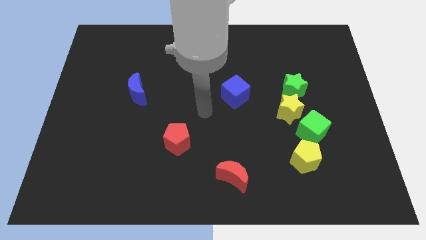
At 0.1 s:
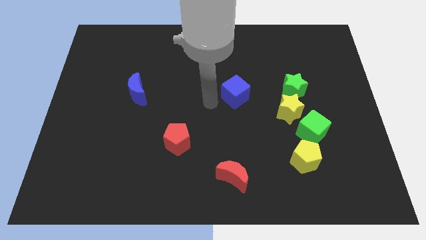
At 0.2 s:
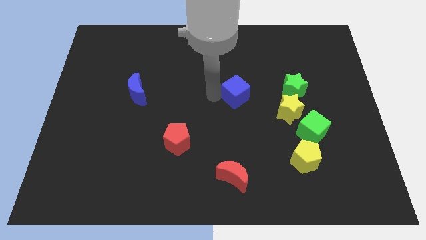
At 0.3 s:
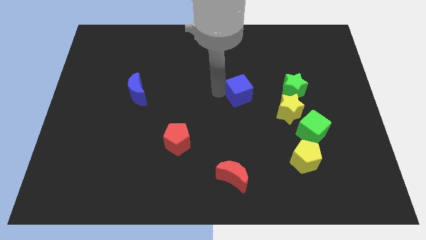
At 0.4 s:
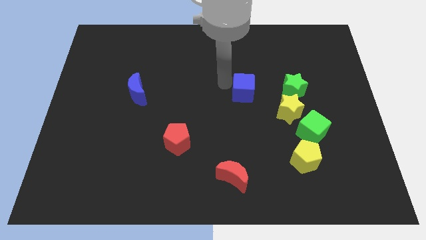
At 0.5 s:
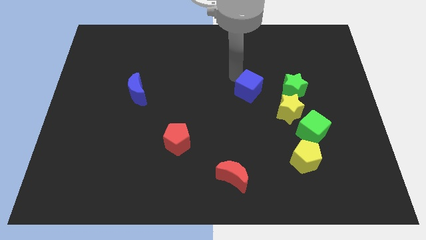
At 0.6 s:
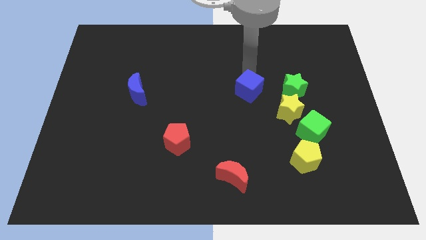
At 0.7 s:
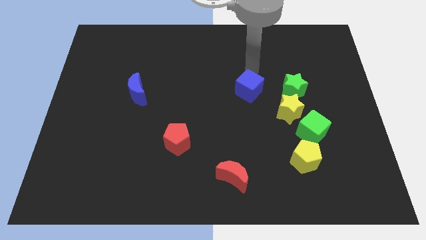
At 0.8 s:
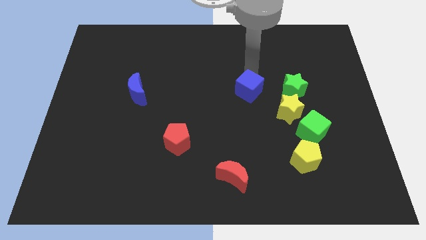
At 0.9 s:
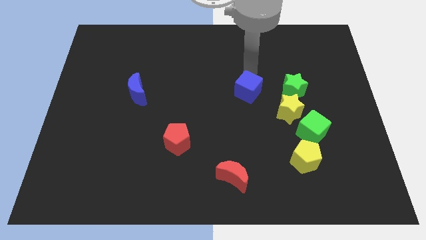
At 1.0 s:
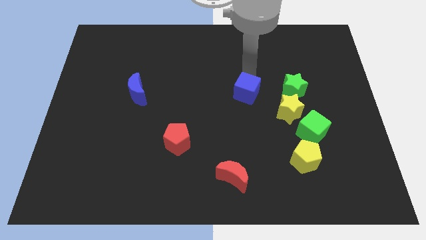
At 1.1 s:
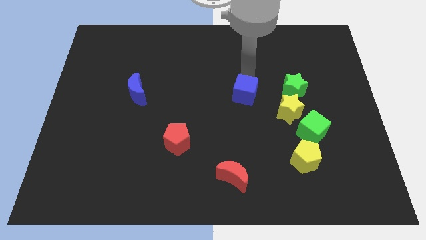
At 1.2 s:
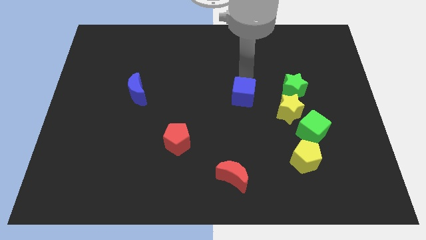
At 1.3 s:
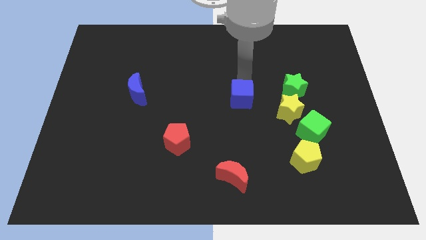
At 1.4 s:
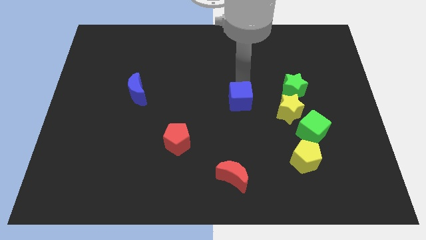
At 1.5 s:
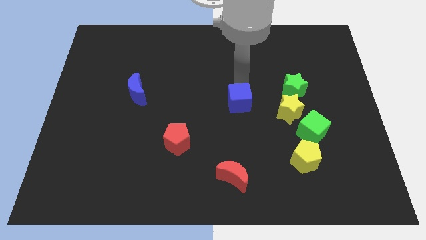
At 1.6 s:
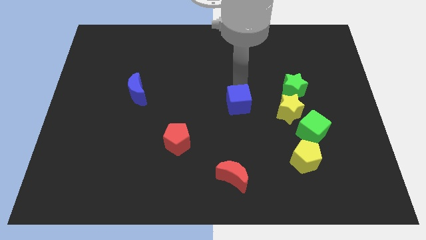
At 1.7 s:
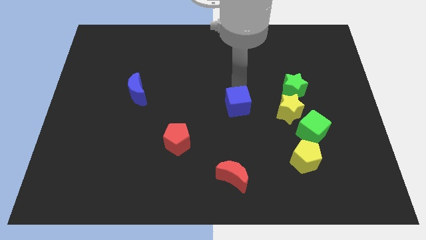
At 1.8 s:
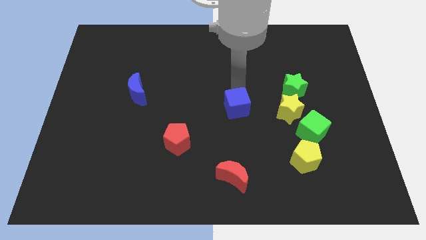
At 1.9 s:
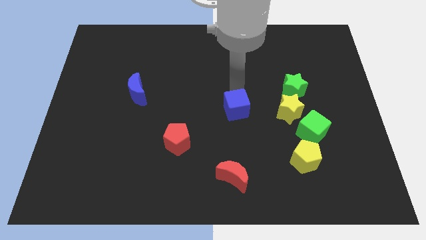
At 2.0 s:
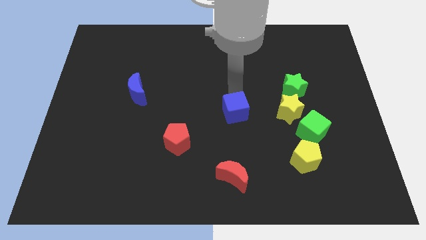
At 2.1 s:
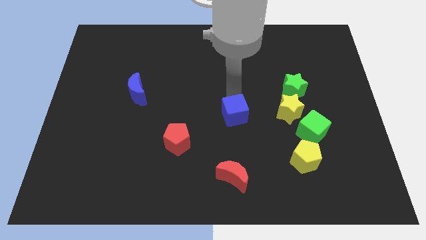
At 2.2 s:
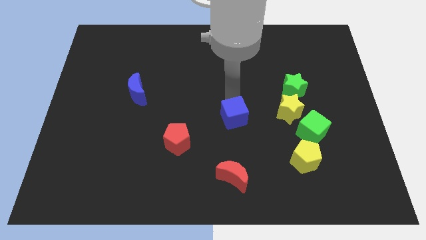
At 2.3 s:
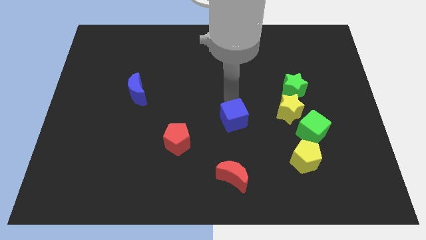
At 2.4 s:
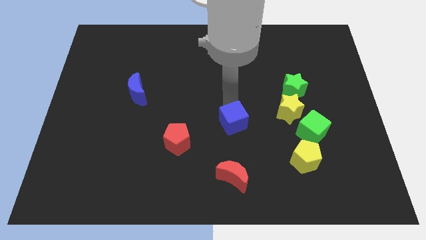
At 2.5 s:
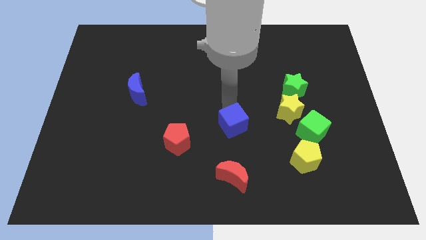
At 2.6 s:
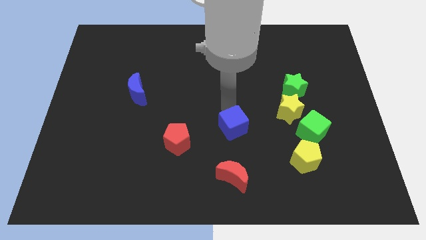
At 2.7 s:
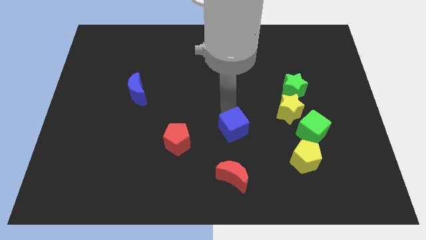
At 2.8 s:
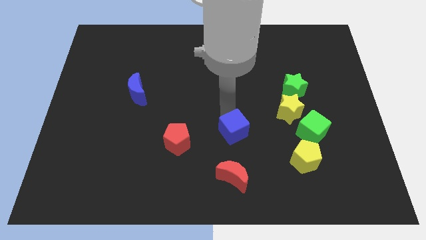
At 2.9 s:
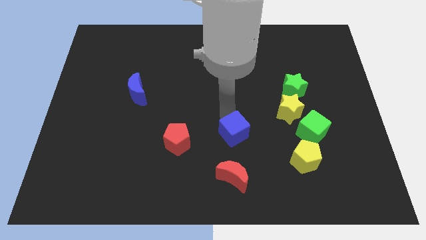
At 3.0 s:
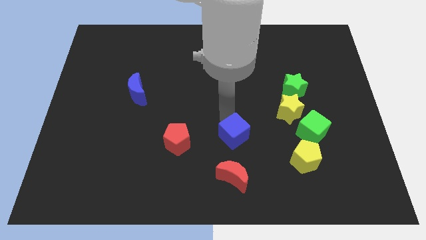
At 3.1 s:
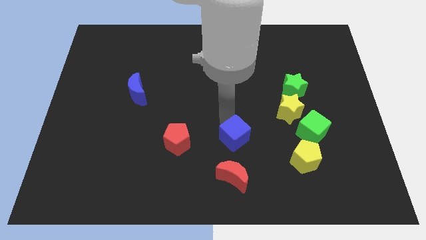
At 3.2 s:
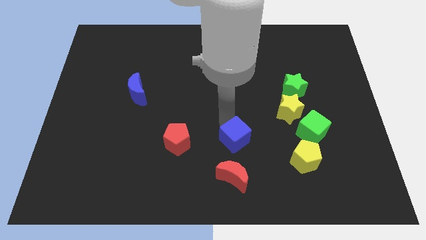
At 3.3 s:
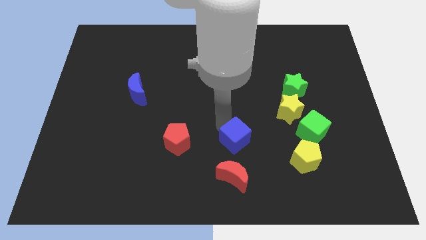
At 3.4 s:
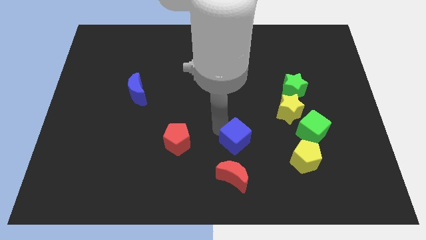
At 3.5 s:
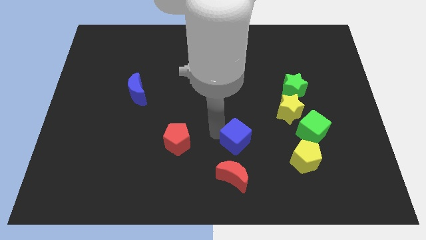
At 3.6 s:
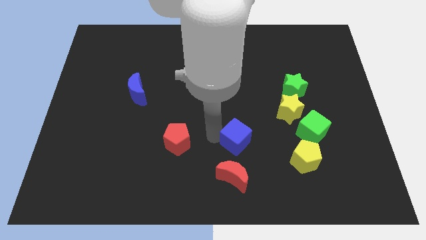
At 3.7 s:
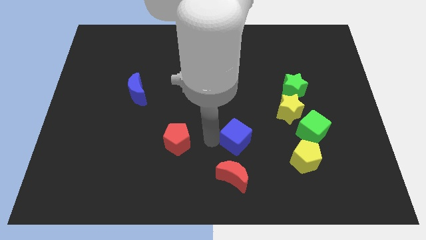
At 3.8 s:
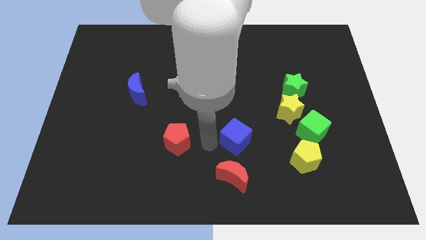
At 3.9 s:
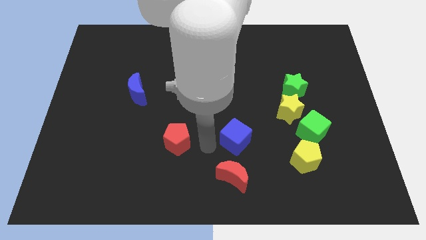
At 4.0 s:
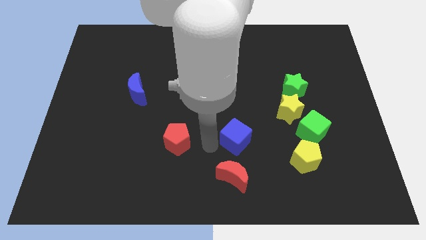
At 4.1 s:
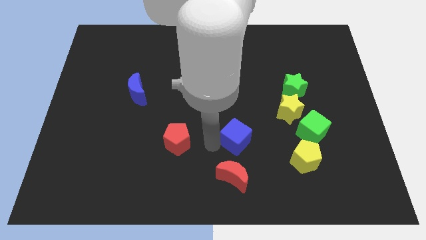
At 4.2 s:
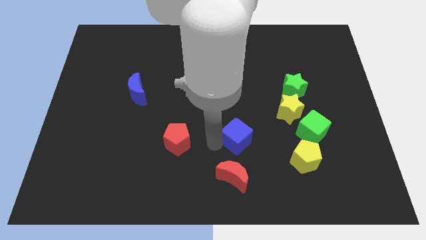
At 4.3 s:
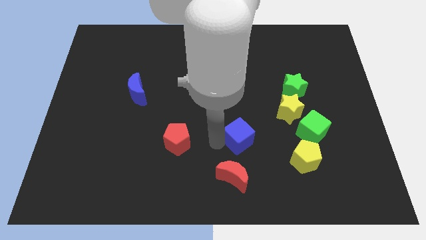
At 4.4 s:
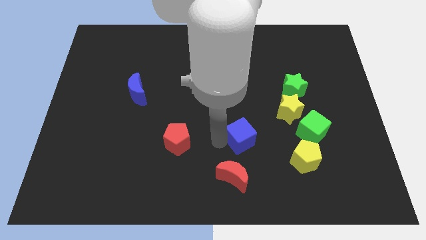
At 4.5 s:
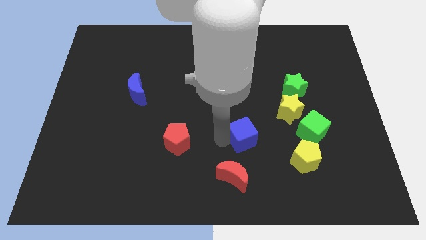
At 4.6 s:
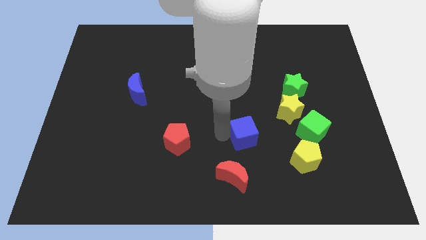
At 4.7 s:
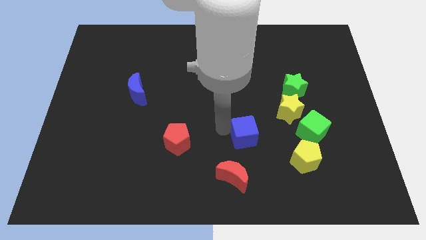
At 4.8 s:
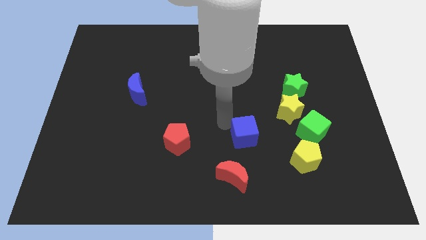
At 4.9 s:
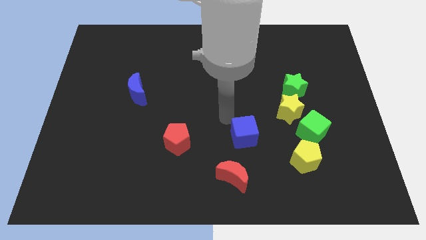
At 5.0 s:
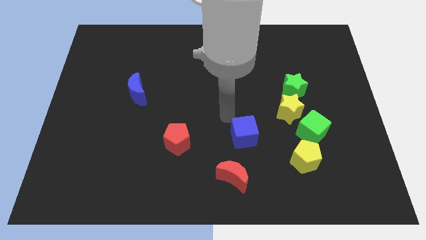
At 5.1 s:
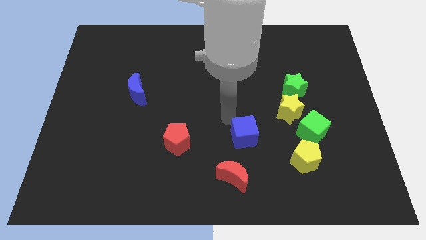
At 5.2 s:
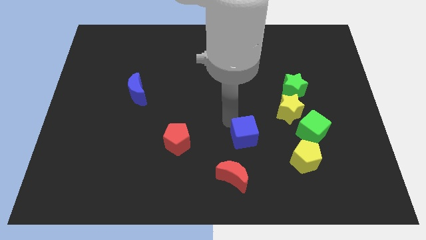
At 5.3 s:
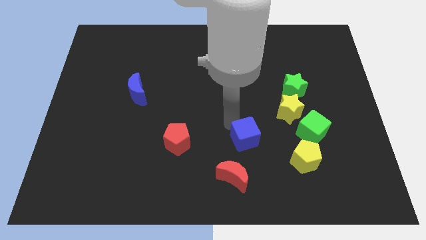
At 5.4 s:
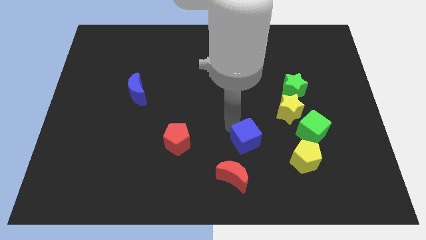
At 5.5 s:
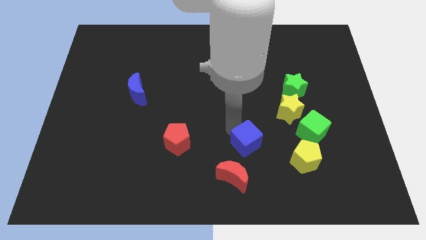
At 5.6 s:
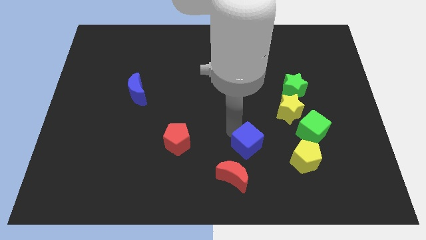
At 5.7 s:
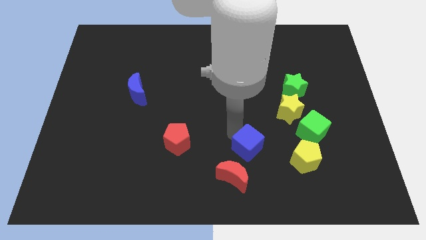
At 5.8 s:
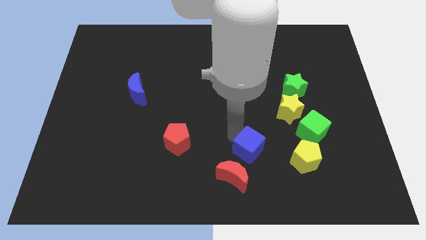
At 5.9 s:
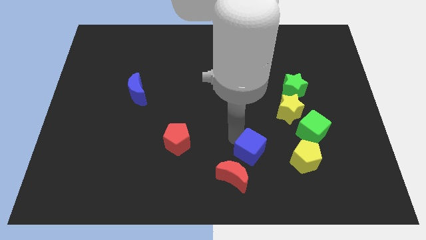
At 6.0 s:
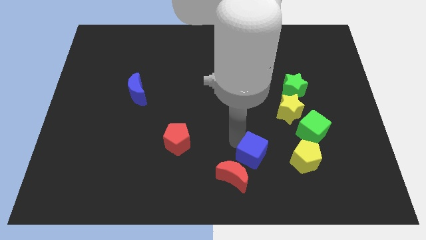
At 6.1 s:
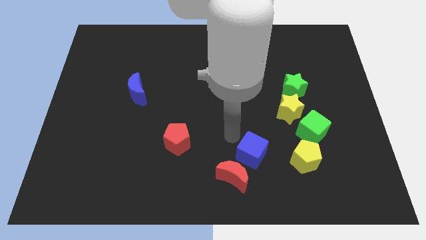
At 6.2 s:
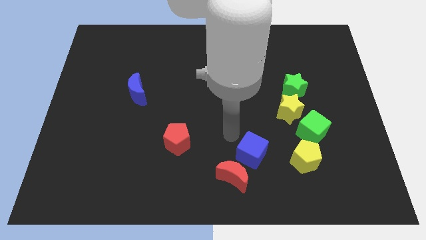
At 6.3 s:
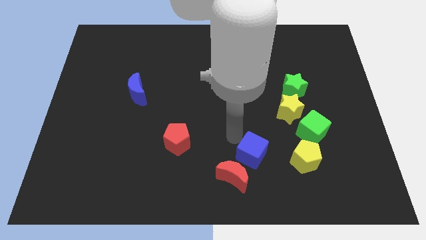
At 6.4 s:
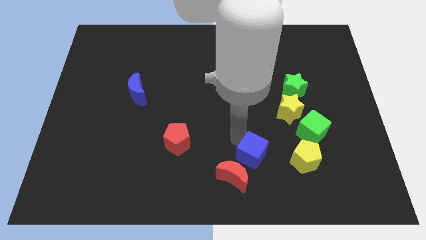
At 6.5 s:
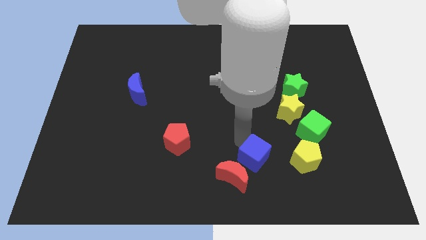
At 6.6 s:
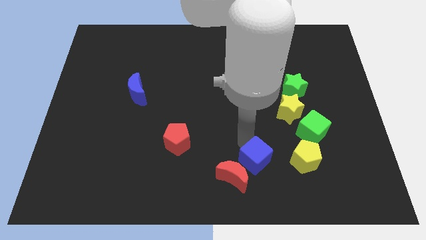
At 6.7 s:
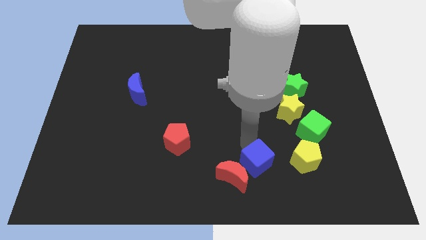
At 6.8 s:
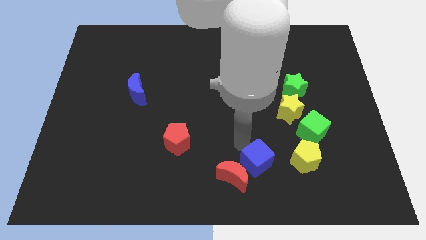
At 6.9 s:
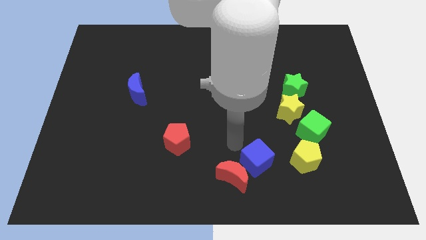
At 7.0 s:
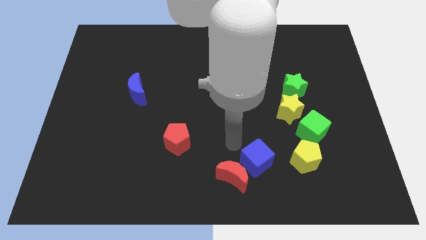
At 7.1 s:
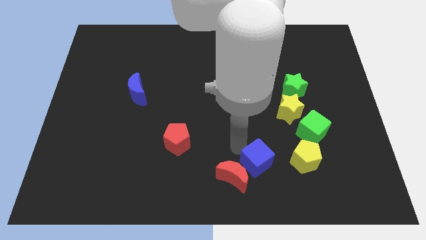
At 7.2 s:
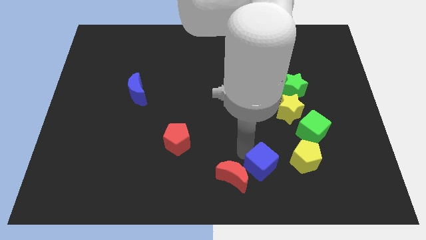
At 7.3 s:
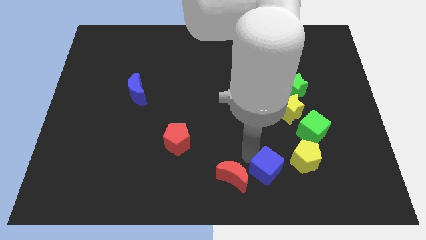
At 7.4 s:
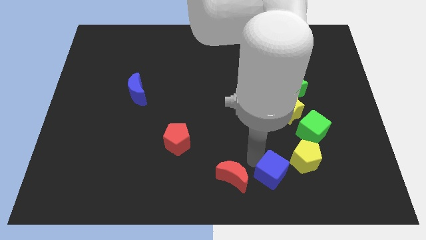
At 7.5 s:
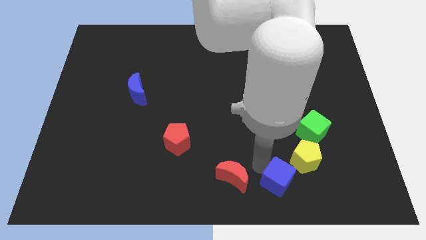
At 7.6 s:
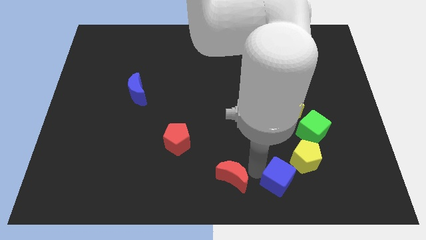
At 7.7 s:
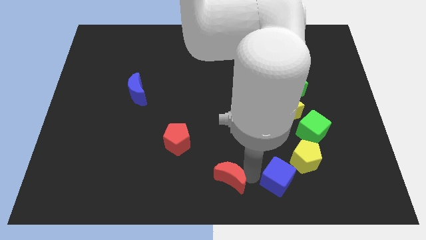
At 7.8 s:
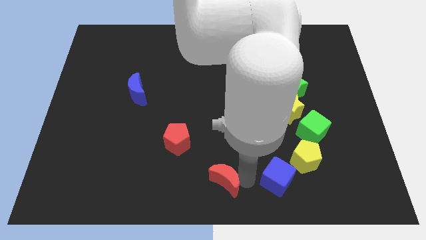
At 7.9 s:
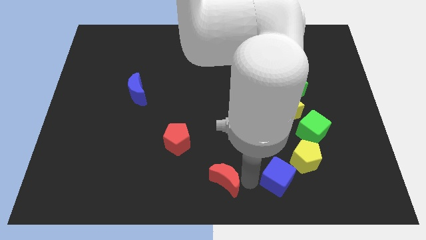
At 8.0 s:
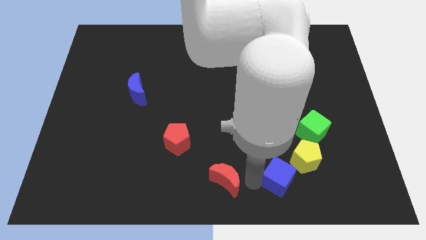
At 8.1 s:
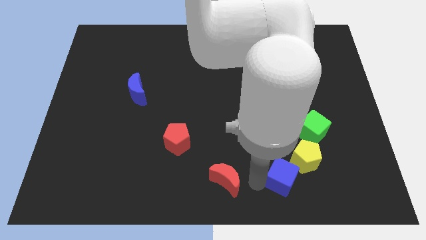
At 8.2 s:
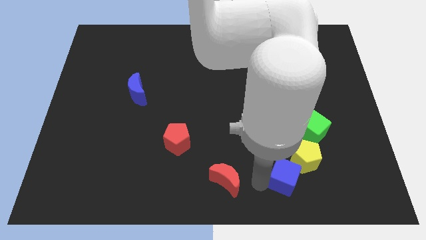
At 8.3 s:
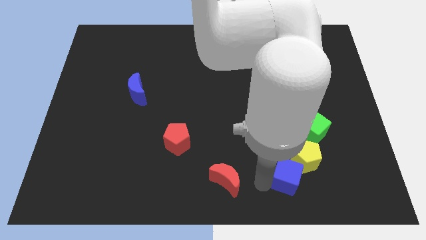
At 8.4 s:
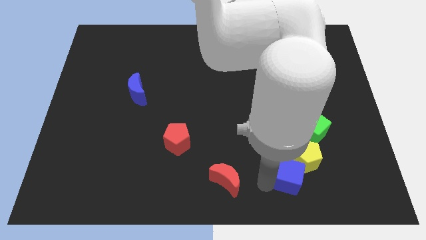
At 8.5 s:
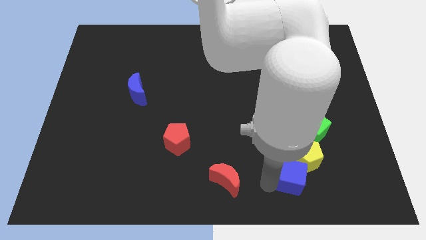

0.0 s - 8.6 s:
push the blue cube downwards and right diagonally
